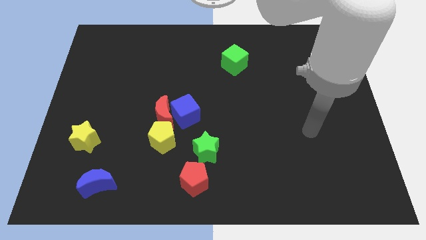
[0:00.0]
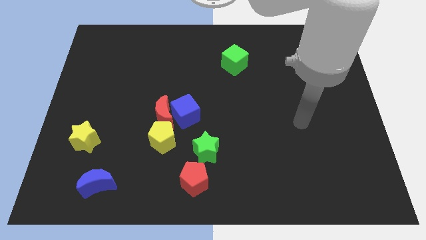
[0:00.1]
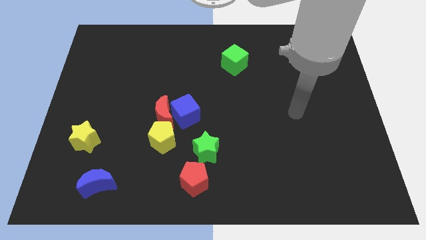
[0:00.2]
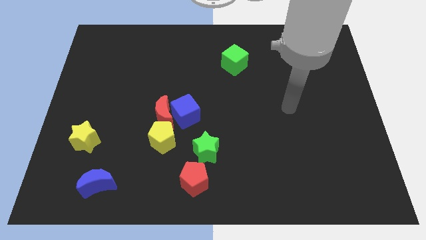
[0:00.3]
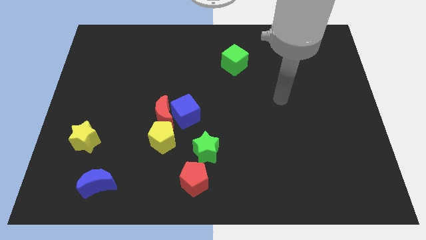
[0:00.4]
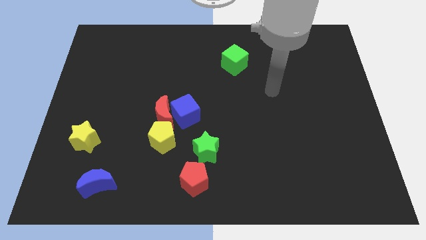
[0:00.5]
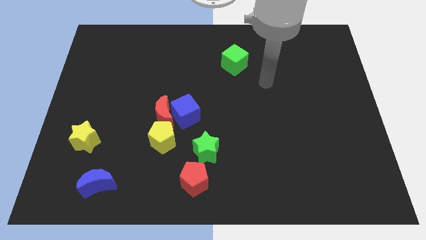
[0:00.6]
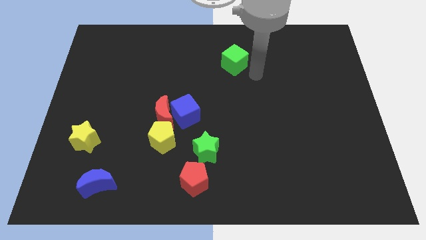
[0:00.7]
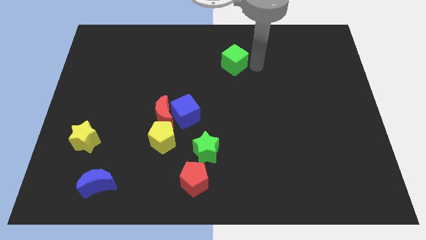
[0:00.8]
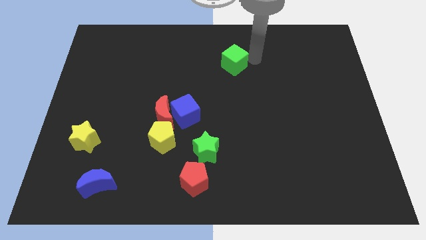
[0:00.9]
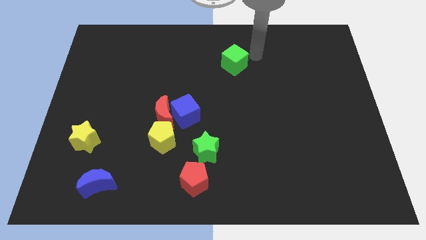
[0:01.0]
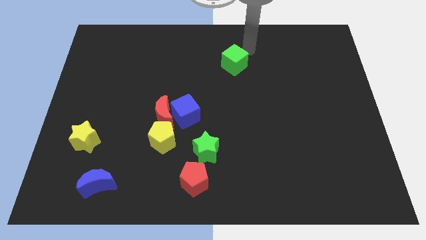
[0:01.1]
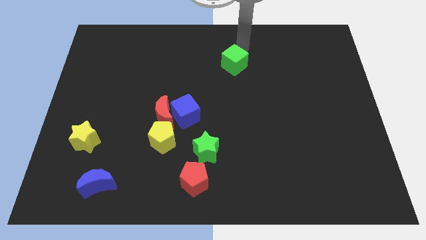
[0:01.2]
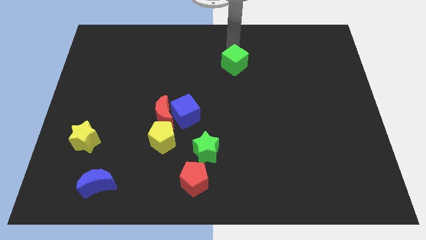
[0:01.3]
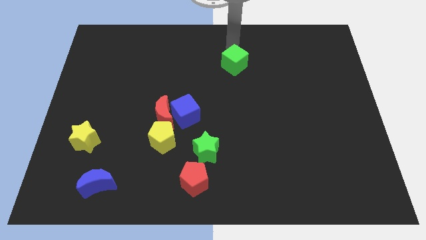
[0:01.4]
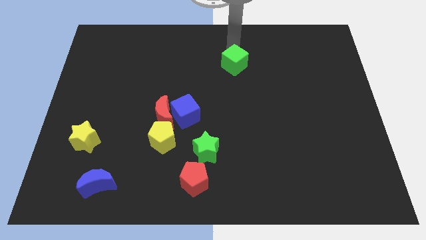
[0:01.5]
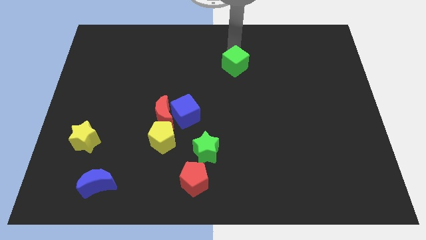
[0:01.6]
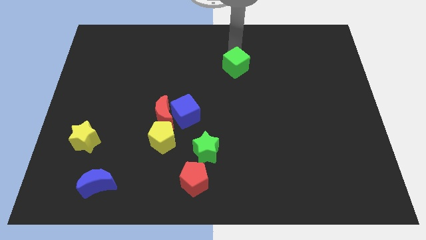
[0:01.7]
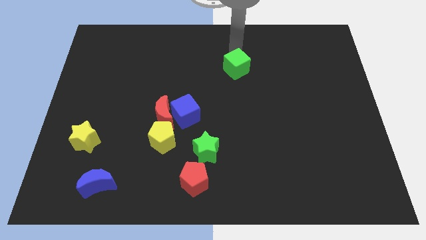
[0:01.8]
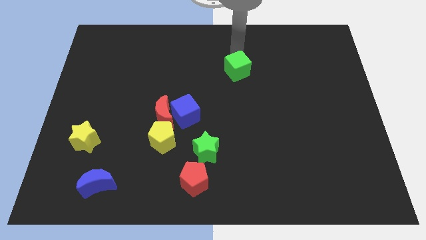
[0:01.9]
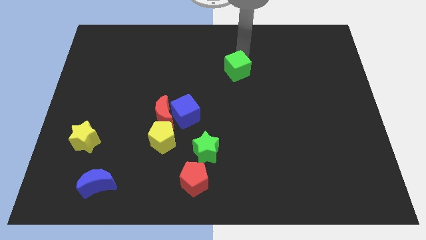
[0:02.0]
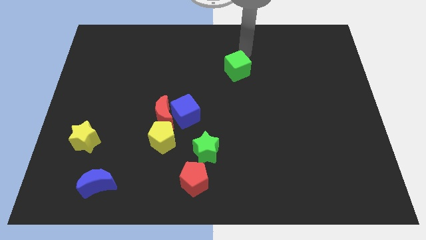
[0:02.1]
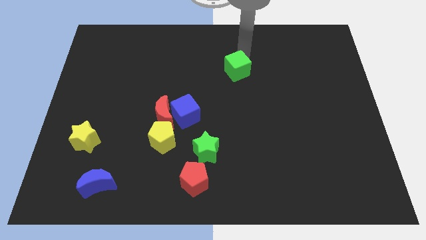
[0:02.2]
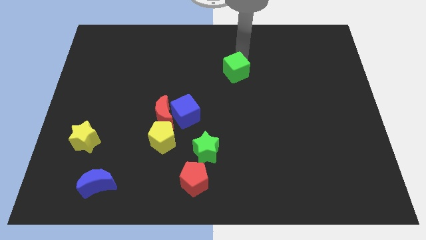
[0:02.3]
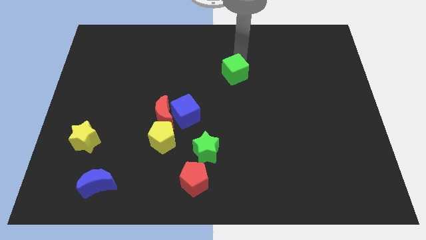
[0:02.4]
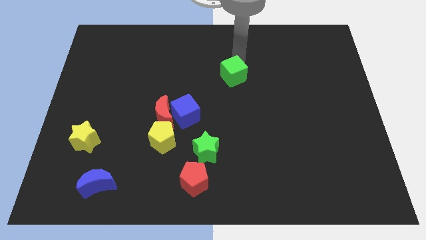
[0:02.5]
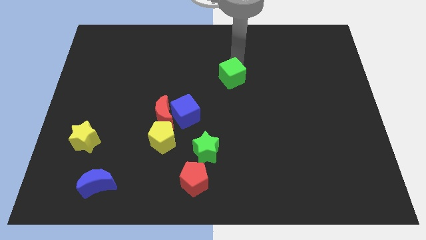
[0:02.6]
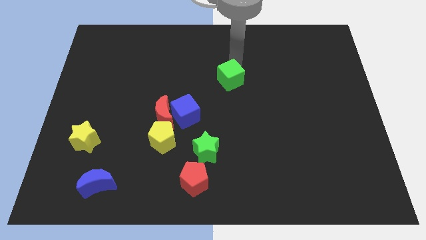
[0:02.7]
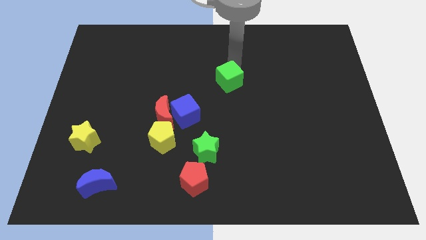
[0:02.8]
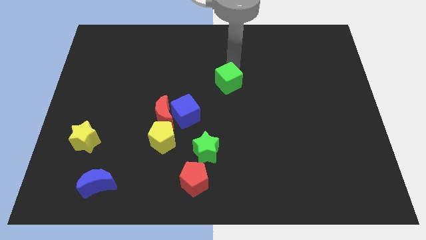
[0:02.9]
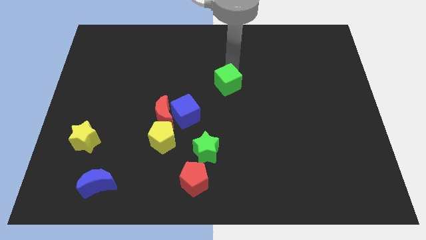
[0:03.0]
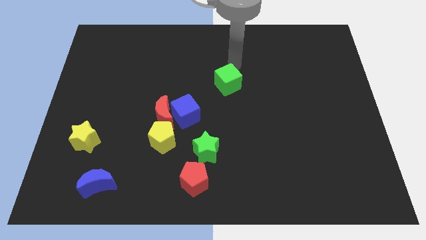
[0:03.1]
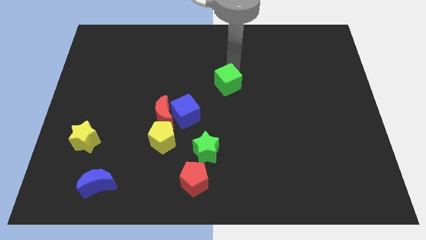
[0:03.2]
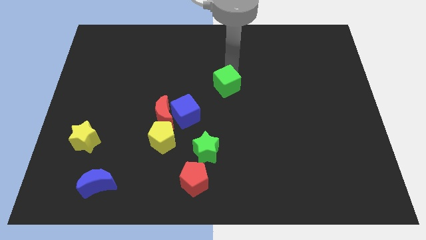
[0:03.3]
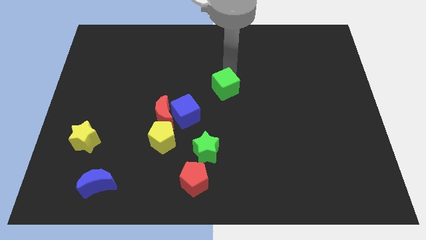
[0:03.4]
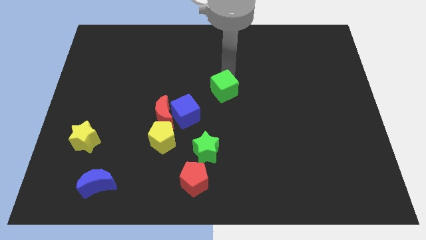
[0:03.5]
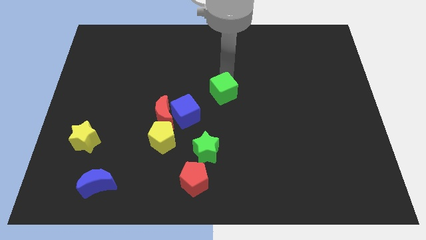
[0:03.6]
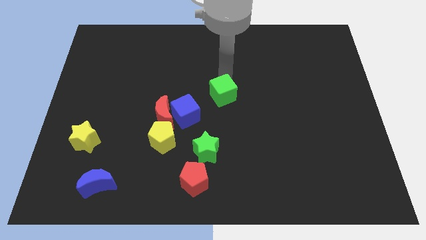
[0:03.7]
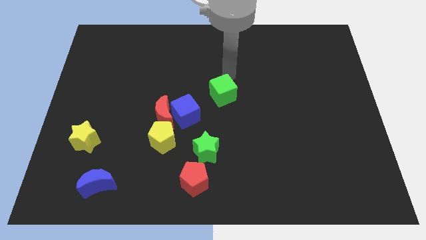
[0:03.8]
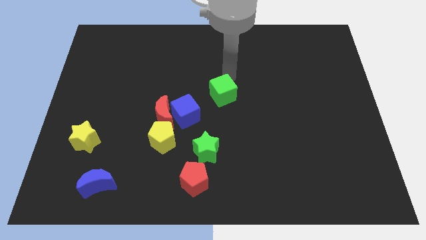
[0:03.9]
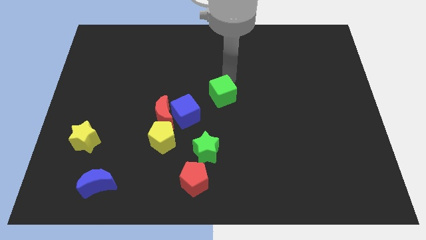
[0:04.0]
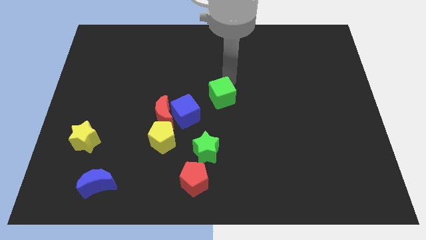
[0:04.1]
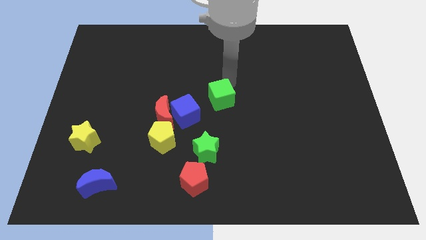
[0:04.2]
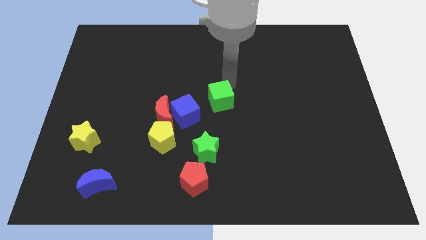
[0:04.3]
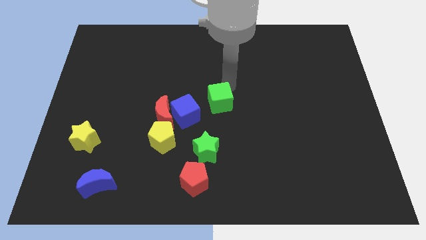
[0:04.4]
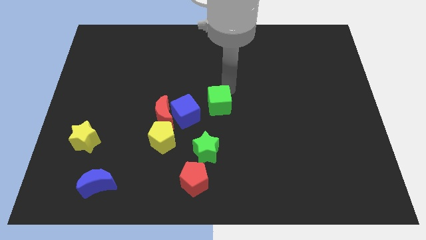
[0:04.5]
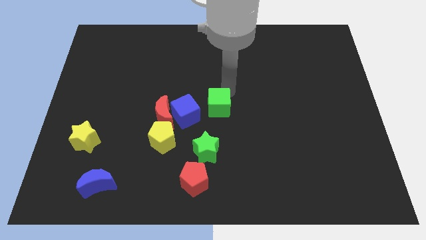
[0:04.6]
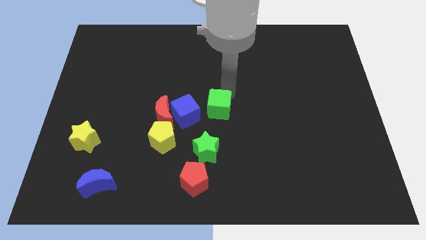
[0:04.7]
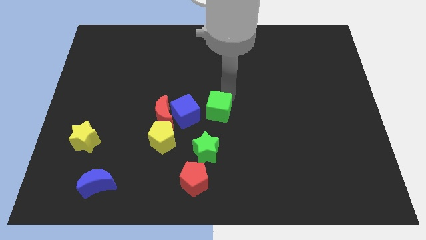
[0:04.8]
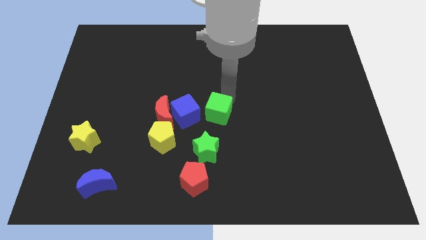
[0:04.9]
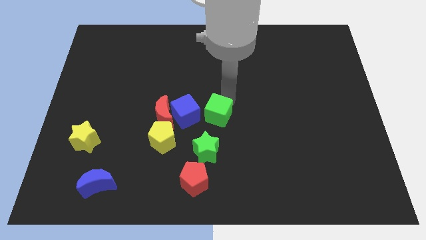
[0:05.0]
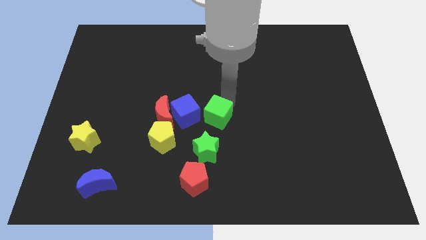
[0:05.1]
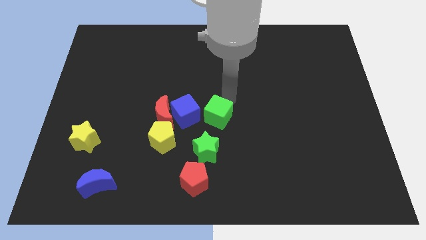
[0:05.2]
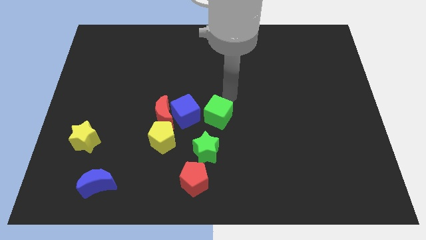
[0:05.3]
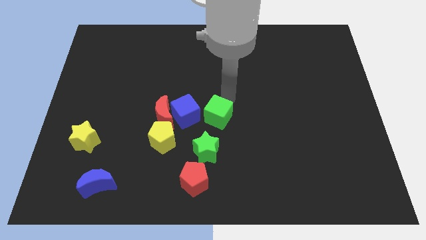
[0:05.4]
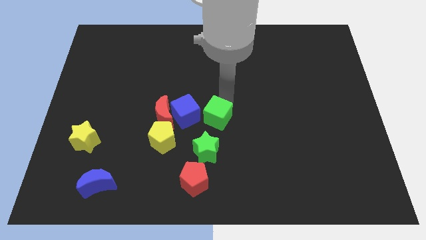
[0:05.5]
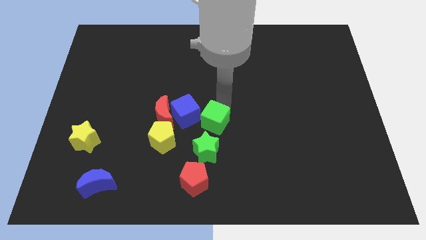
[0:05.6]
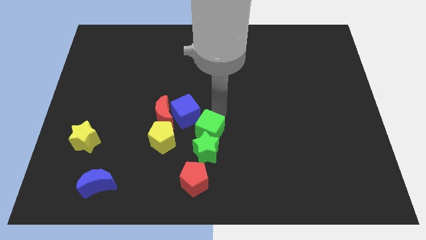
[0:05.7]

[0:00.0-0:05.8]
put the green cube next to the green star

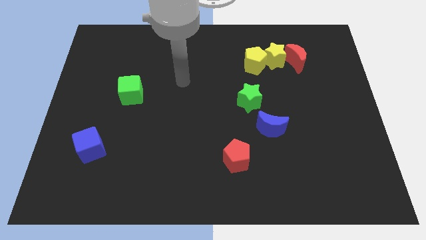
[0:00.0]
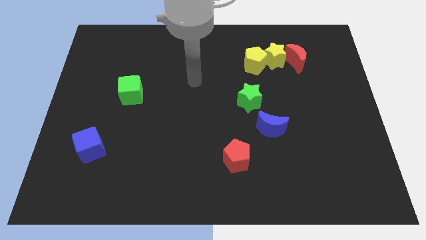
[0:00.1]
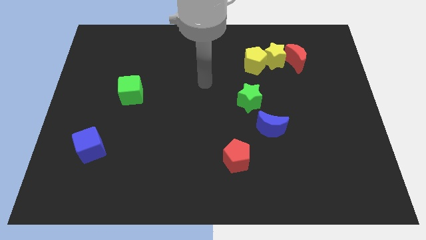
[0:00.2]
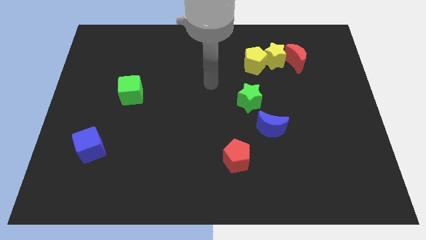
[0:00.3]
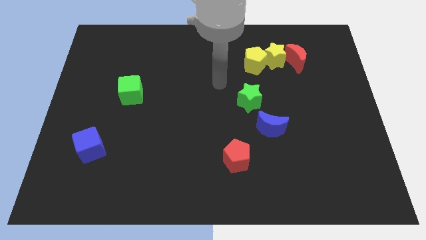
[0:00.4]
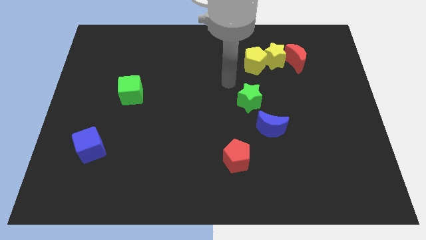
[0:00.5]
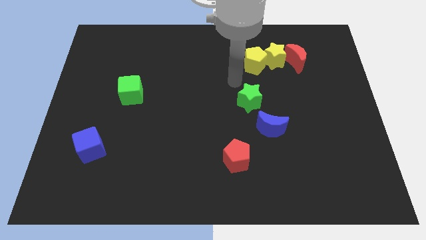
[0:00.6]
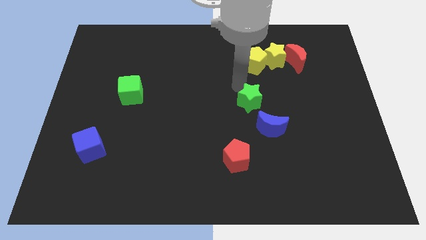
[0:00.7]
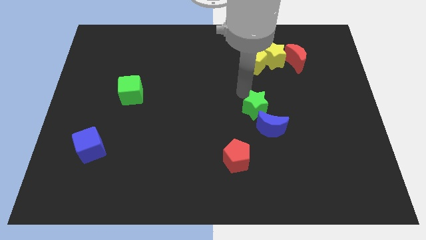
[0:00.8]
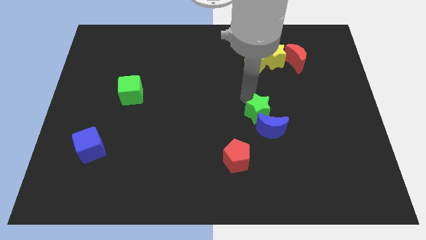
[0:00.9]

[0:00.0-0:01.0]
push the green star next to the blue moon
